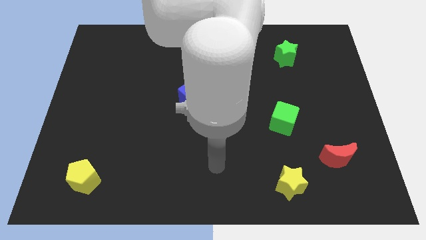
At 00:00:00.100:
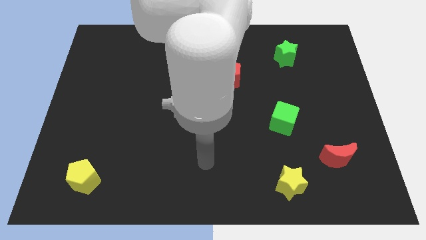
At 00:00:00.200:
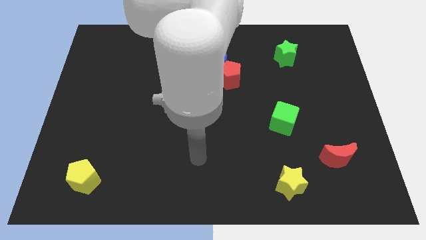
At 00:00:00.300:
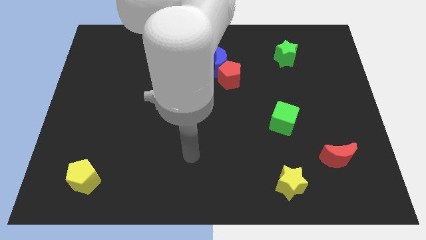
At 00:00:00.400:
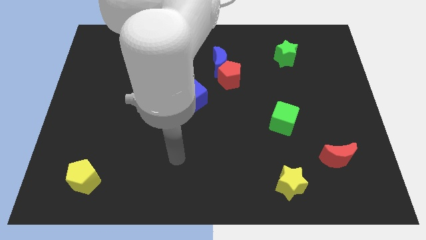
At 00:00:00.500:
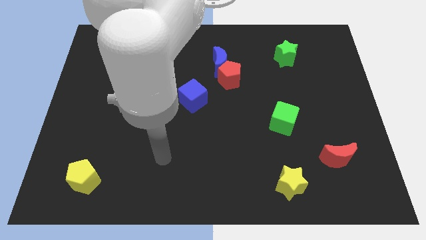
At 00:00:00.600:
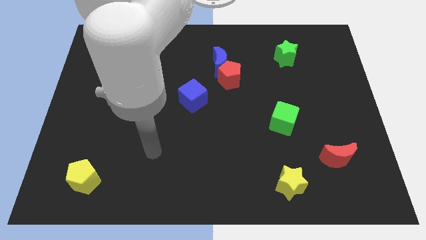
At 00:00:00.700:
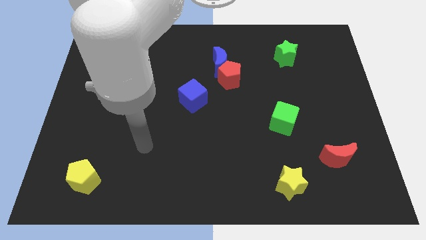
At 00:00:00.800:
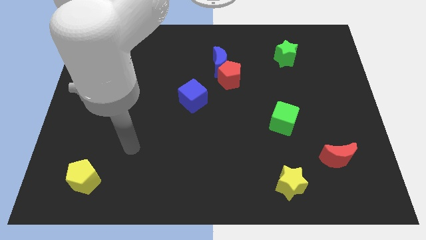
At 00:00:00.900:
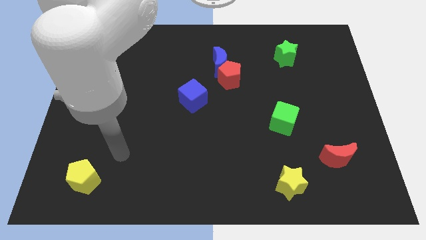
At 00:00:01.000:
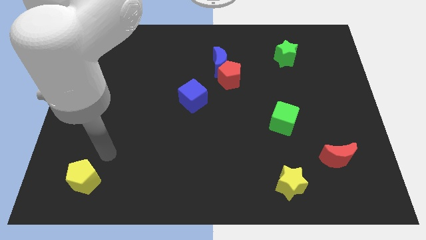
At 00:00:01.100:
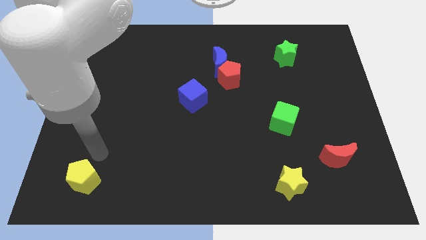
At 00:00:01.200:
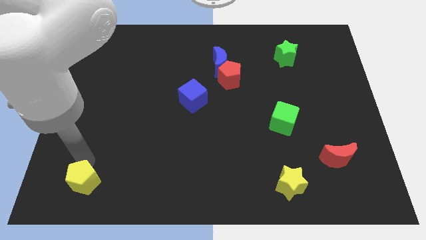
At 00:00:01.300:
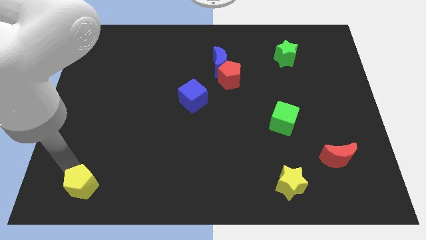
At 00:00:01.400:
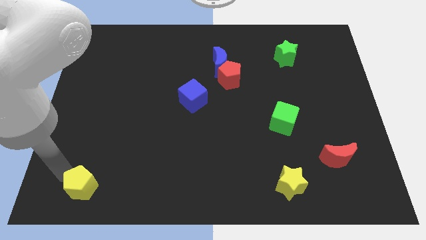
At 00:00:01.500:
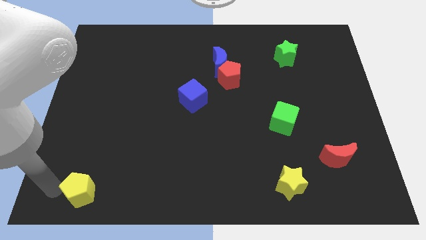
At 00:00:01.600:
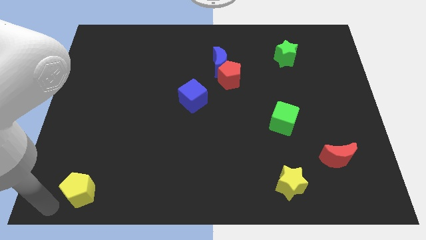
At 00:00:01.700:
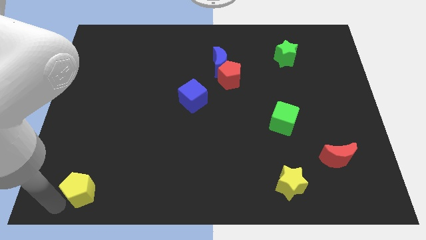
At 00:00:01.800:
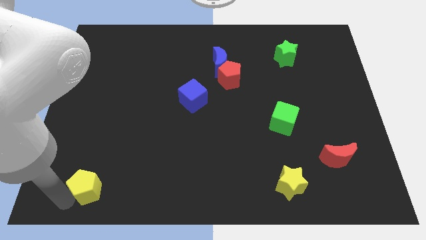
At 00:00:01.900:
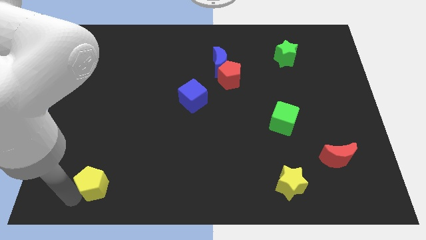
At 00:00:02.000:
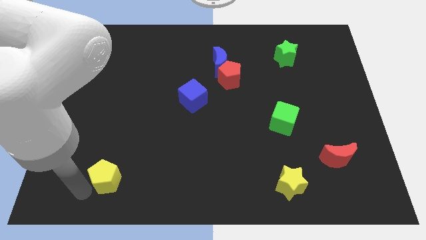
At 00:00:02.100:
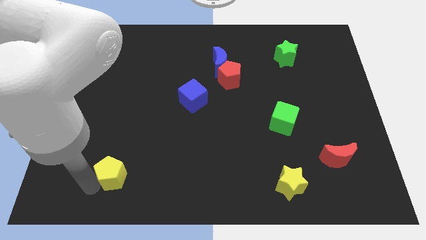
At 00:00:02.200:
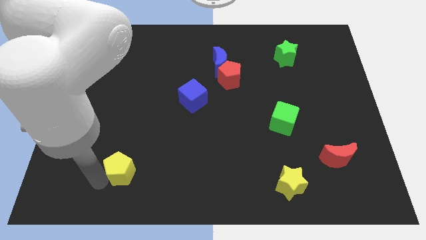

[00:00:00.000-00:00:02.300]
slide the yellow pentagon a bit to the right

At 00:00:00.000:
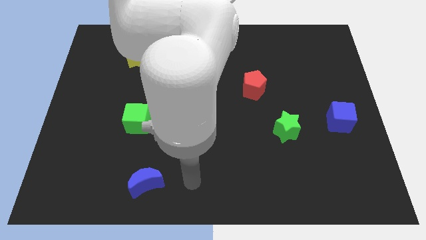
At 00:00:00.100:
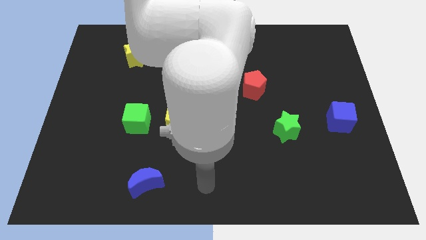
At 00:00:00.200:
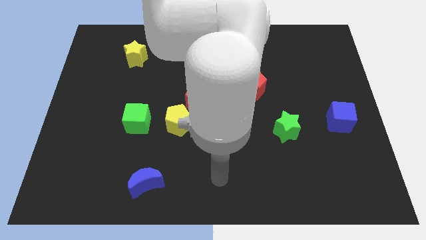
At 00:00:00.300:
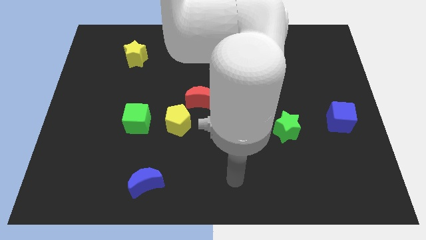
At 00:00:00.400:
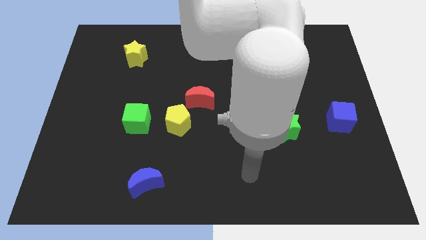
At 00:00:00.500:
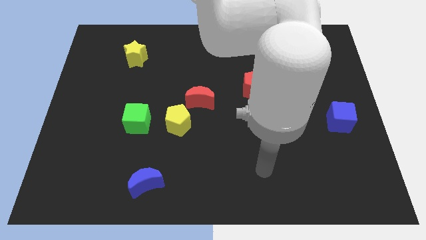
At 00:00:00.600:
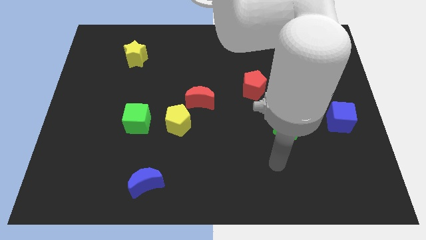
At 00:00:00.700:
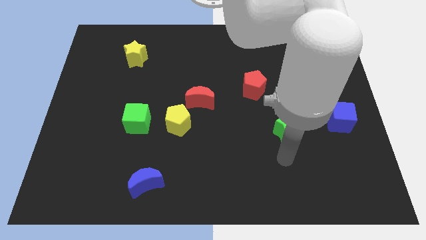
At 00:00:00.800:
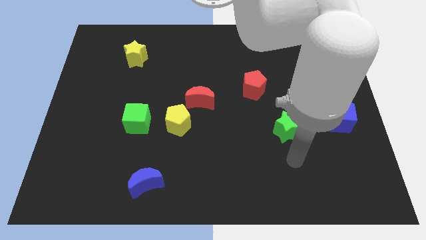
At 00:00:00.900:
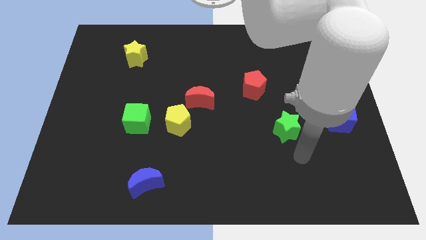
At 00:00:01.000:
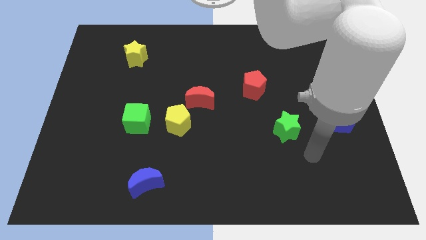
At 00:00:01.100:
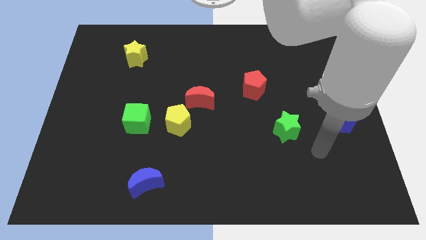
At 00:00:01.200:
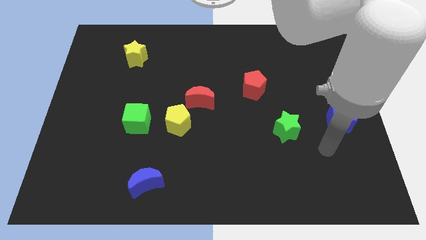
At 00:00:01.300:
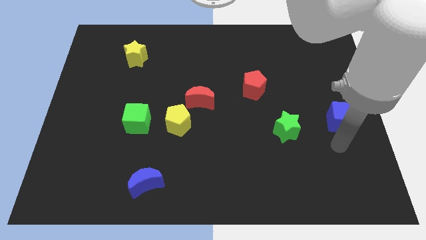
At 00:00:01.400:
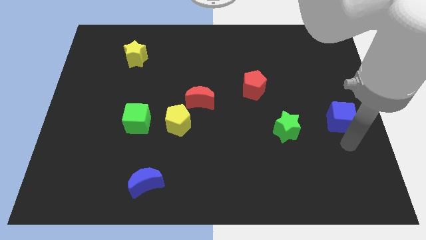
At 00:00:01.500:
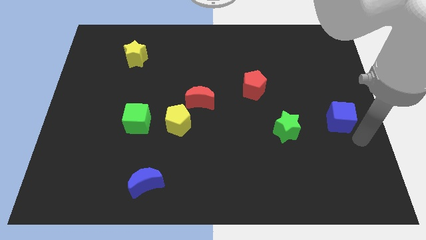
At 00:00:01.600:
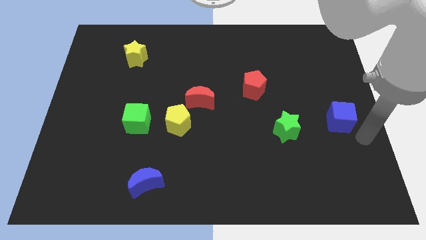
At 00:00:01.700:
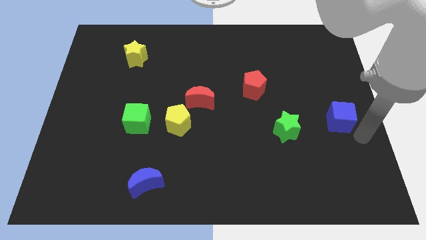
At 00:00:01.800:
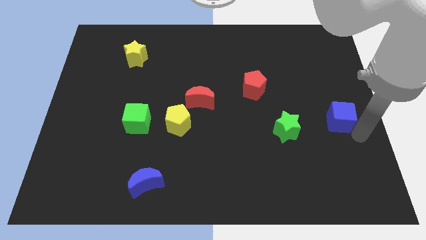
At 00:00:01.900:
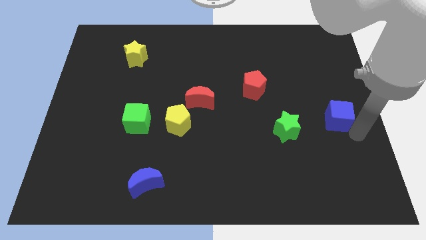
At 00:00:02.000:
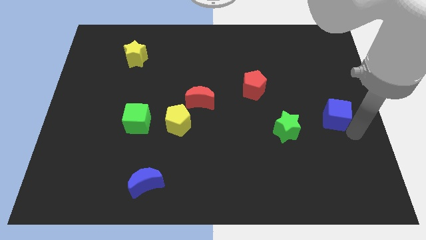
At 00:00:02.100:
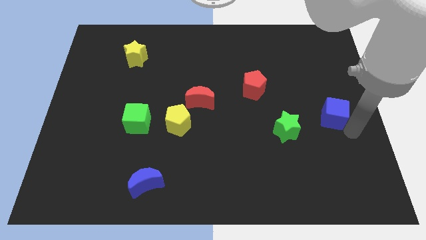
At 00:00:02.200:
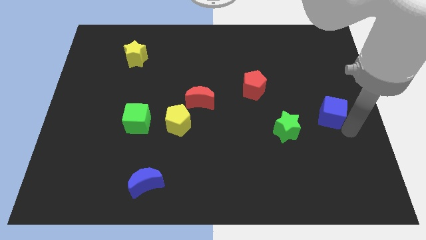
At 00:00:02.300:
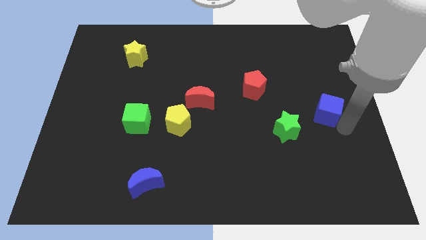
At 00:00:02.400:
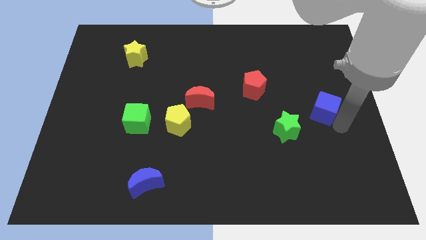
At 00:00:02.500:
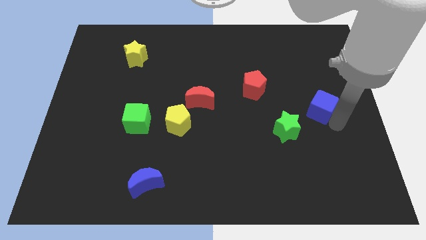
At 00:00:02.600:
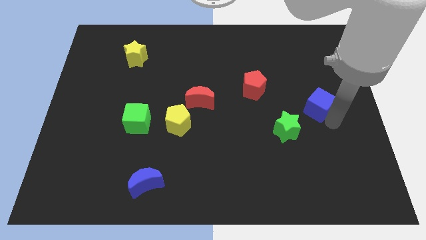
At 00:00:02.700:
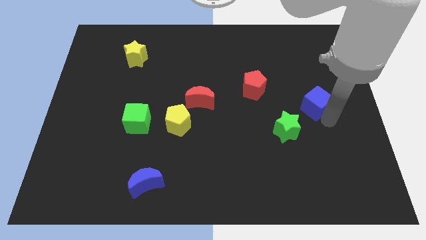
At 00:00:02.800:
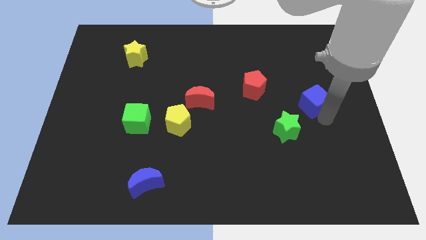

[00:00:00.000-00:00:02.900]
move the blue cube up and left a bit

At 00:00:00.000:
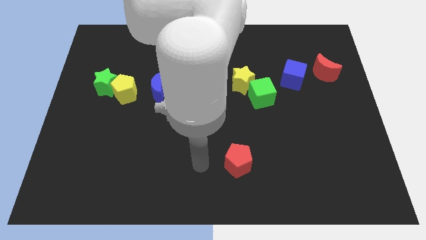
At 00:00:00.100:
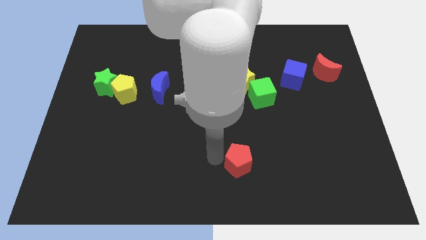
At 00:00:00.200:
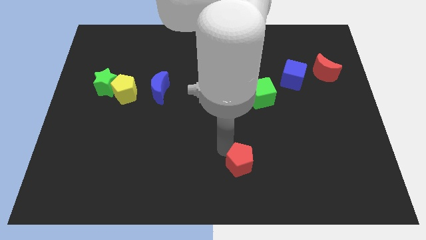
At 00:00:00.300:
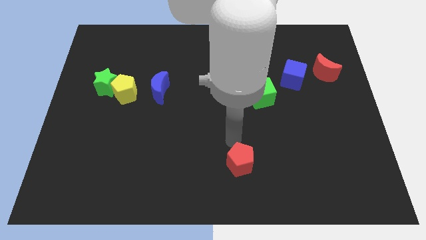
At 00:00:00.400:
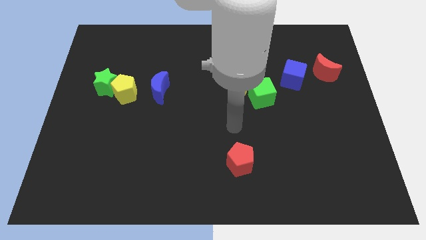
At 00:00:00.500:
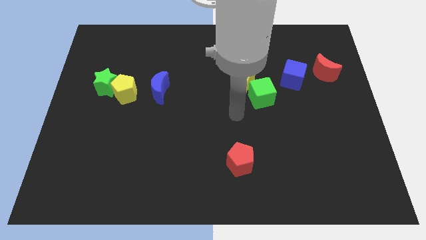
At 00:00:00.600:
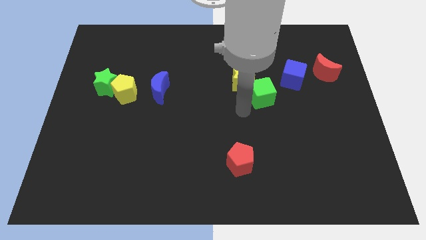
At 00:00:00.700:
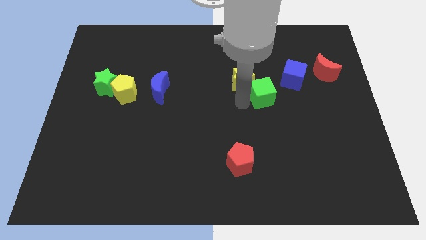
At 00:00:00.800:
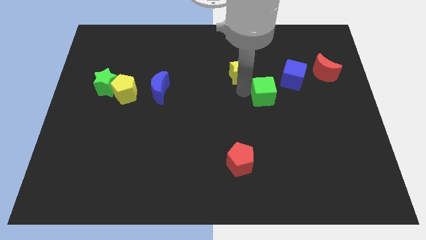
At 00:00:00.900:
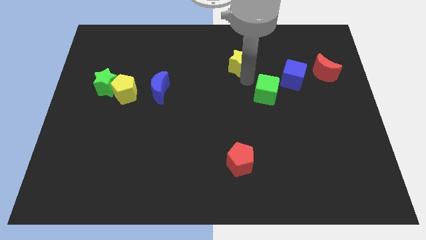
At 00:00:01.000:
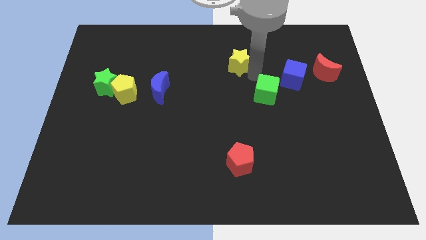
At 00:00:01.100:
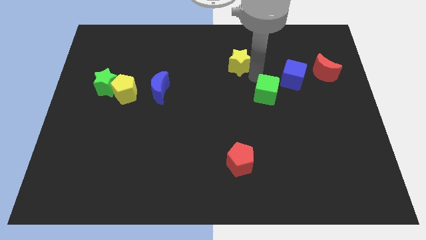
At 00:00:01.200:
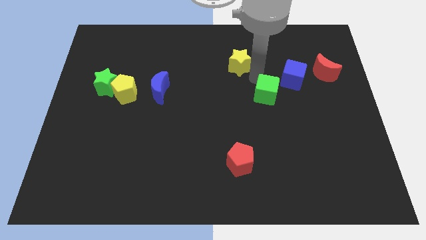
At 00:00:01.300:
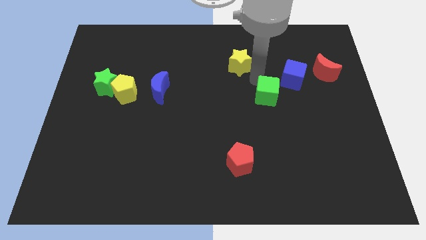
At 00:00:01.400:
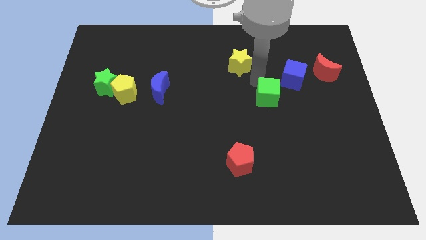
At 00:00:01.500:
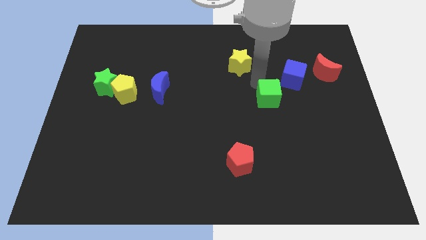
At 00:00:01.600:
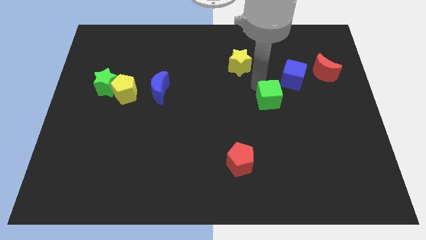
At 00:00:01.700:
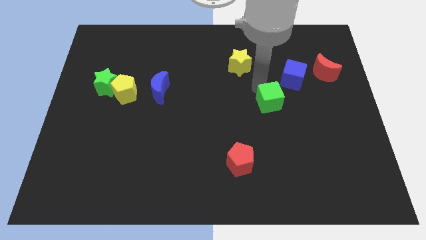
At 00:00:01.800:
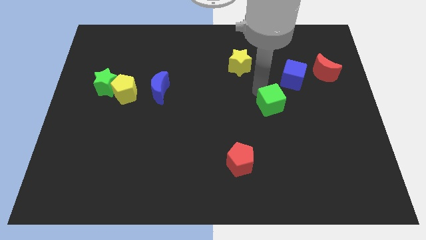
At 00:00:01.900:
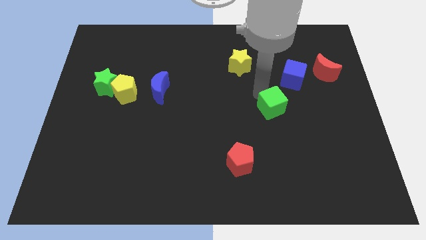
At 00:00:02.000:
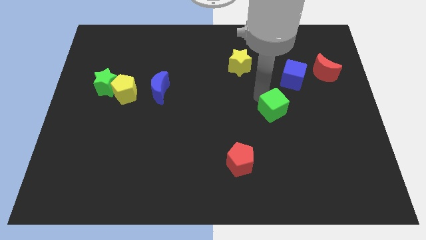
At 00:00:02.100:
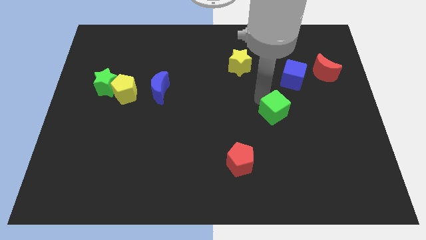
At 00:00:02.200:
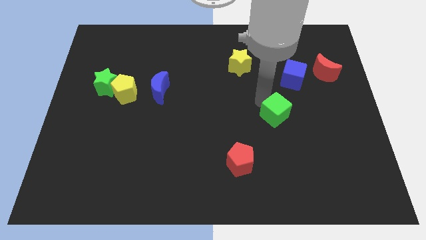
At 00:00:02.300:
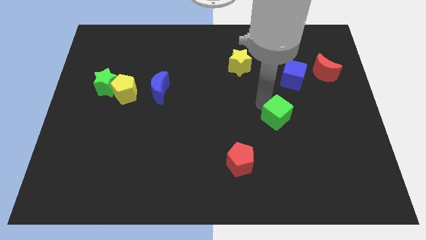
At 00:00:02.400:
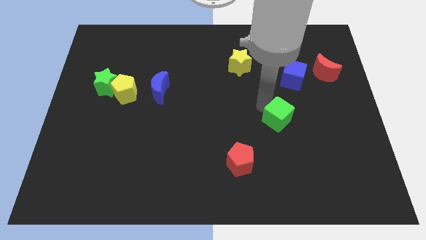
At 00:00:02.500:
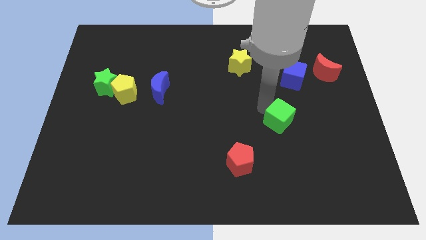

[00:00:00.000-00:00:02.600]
move the green cube a bit downwards and to the right diagonally
